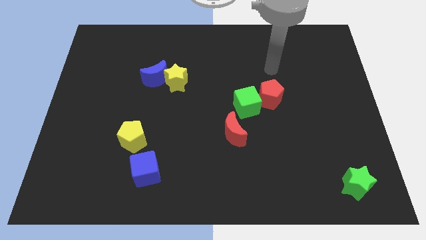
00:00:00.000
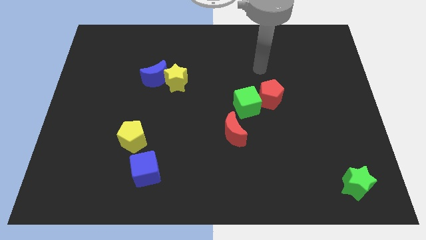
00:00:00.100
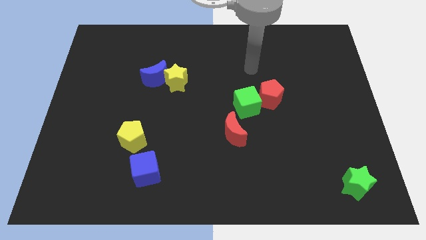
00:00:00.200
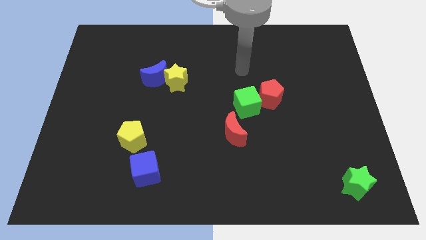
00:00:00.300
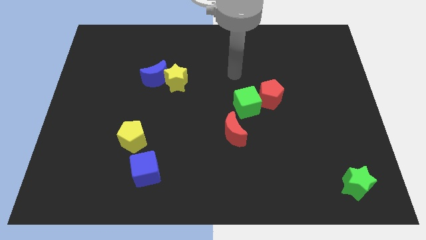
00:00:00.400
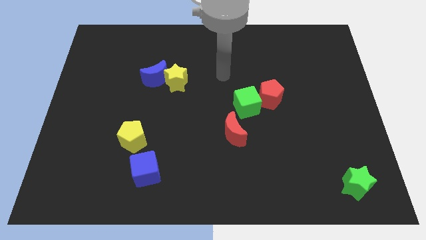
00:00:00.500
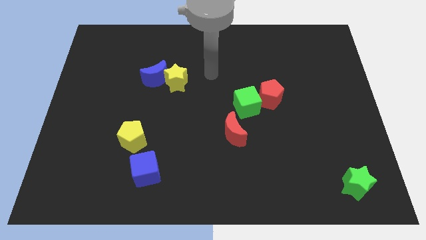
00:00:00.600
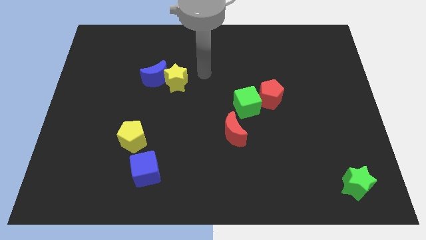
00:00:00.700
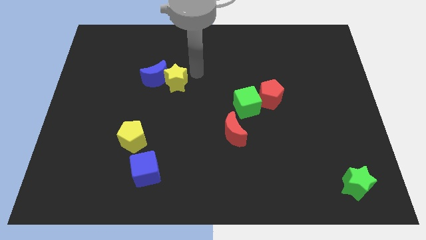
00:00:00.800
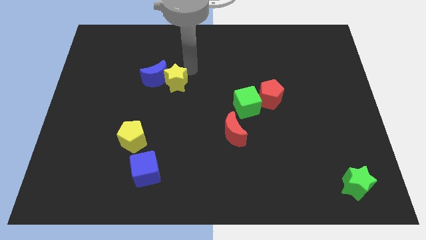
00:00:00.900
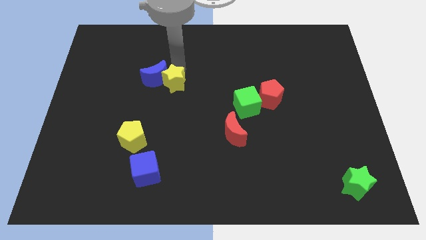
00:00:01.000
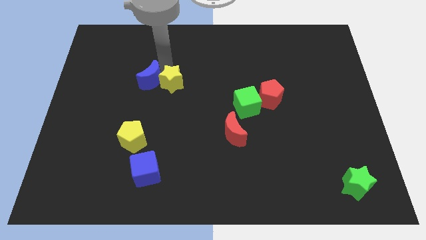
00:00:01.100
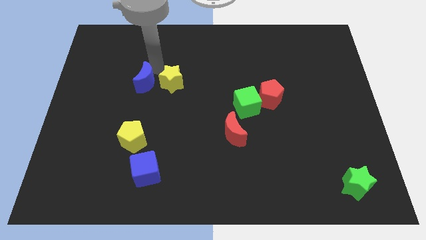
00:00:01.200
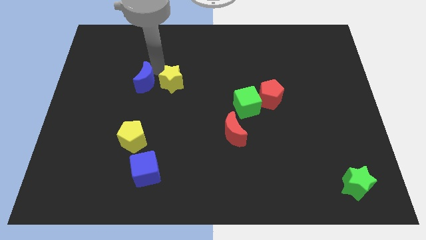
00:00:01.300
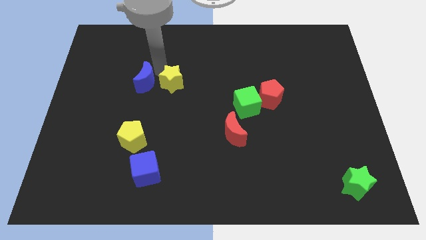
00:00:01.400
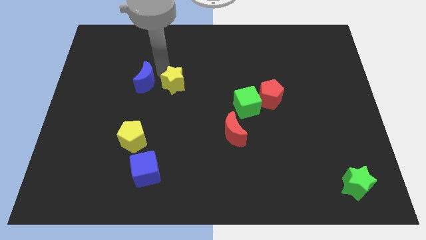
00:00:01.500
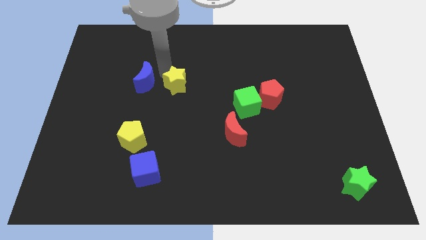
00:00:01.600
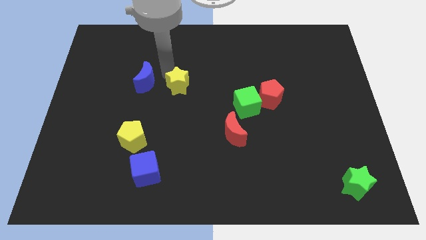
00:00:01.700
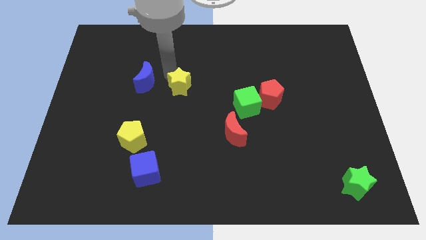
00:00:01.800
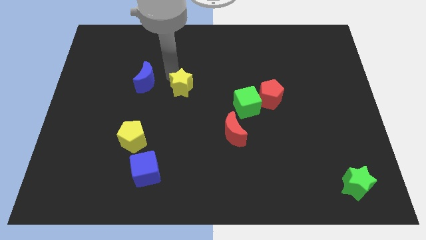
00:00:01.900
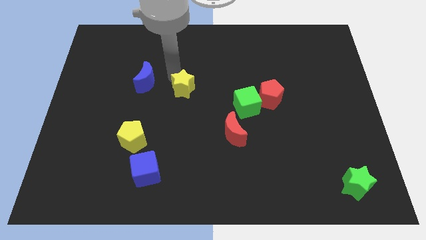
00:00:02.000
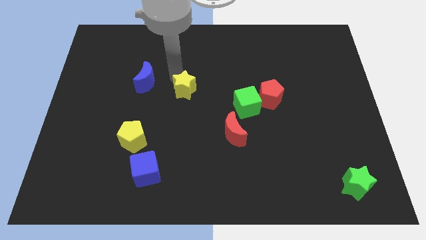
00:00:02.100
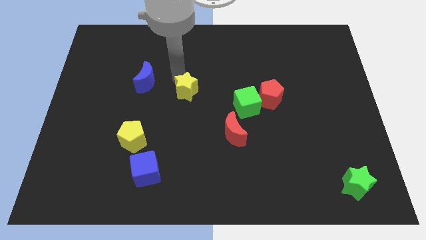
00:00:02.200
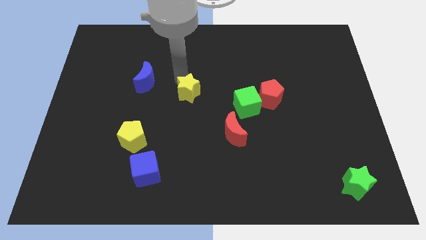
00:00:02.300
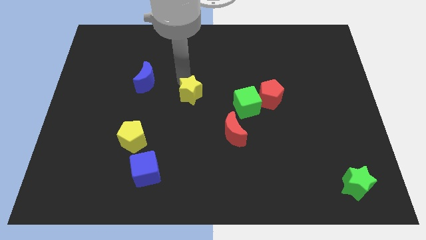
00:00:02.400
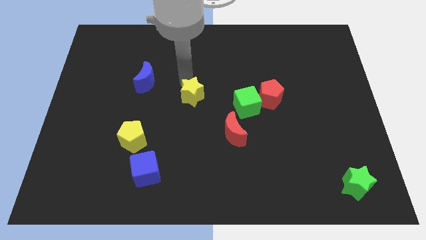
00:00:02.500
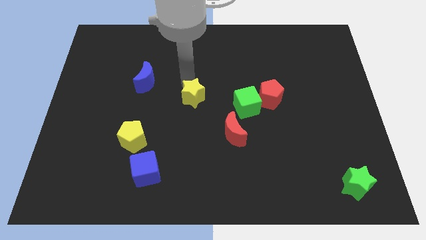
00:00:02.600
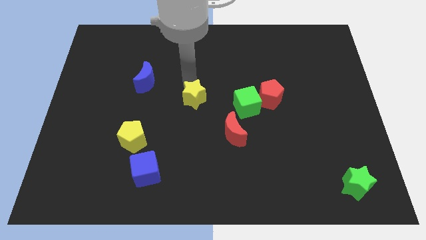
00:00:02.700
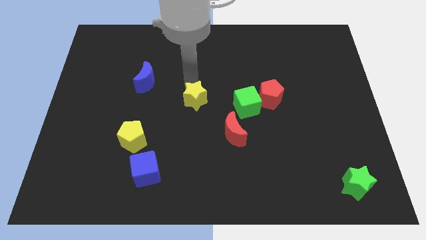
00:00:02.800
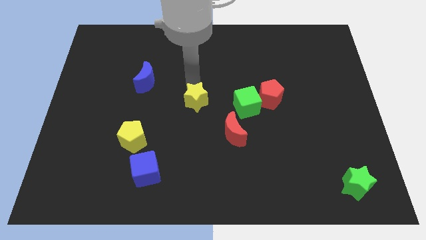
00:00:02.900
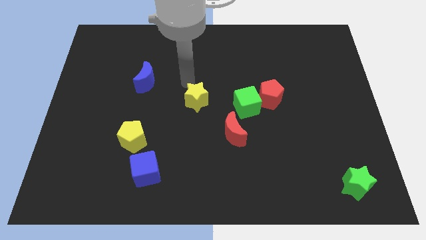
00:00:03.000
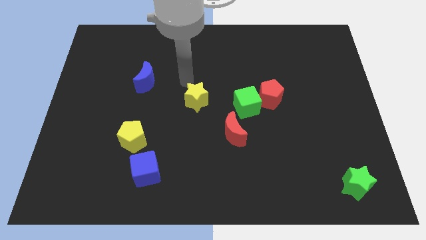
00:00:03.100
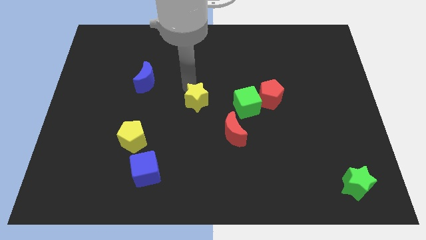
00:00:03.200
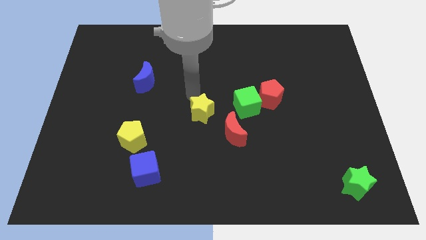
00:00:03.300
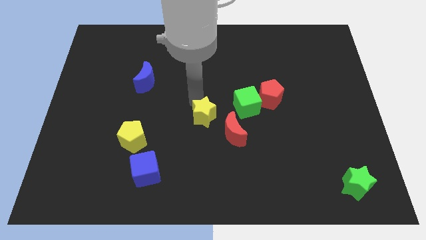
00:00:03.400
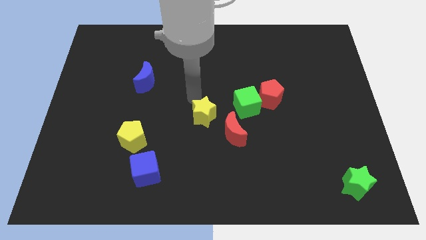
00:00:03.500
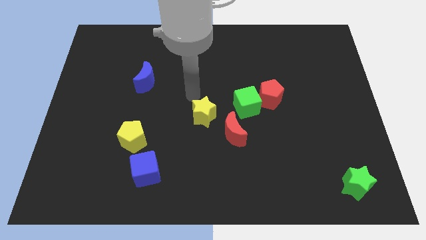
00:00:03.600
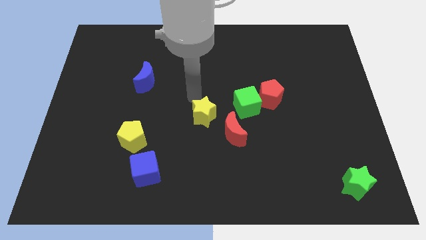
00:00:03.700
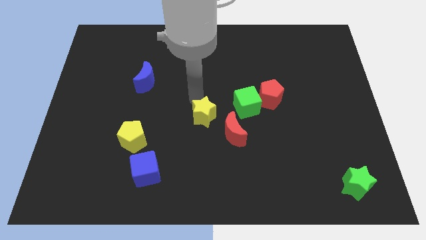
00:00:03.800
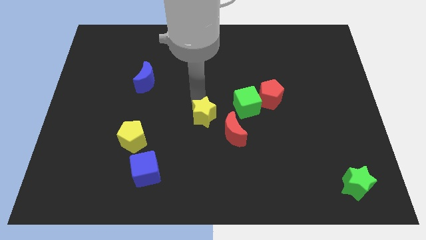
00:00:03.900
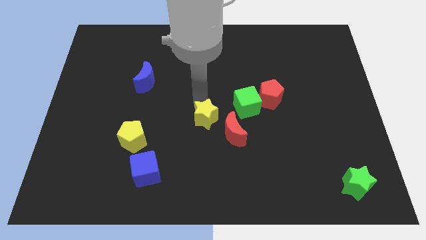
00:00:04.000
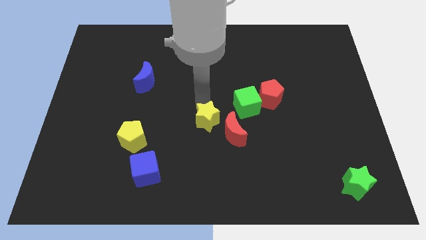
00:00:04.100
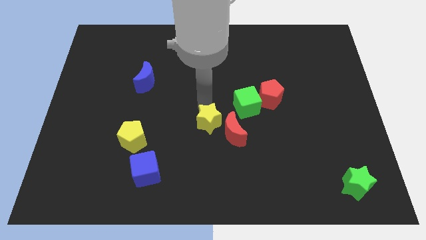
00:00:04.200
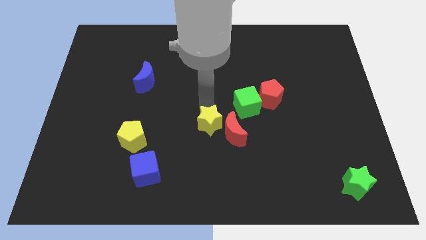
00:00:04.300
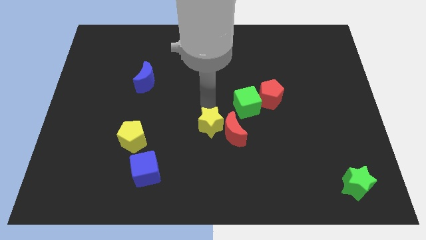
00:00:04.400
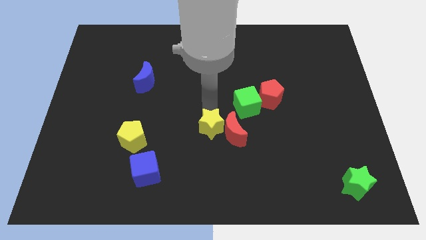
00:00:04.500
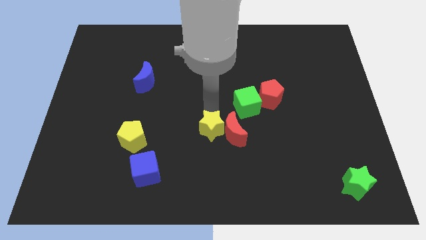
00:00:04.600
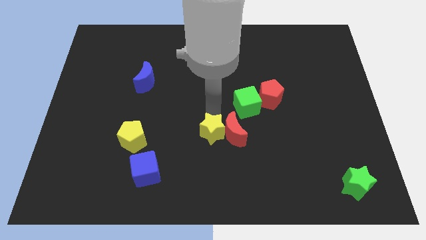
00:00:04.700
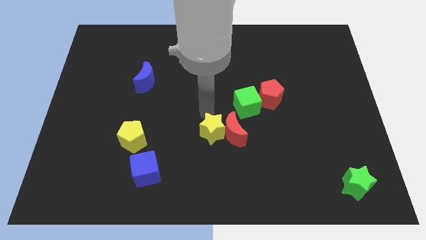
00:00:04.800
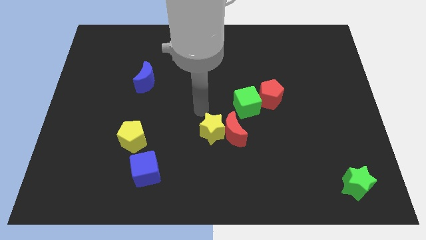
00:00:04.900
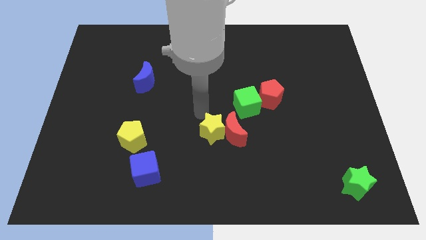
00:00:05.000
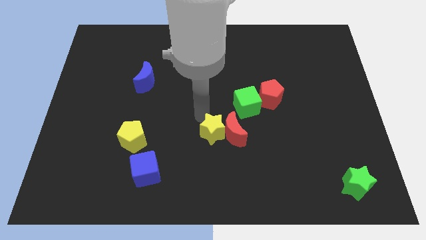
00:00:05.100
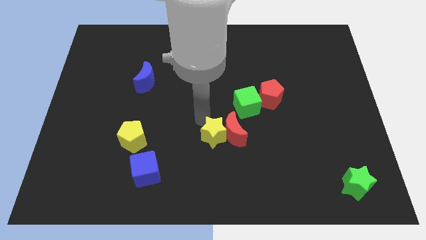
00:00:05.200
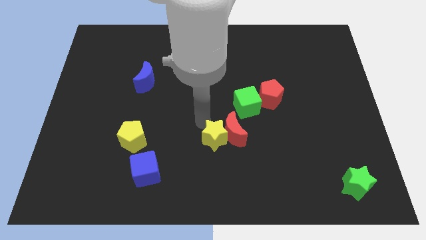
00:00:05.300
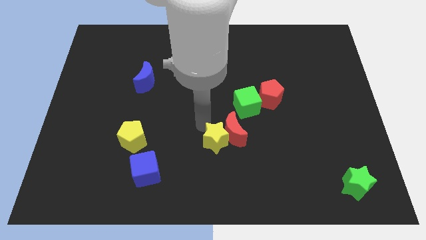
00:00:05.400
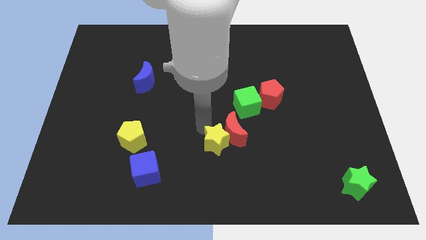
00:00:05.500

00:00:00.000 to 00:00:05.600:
push the yellow star below the red moon

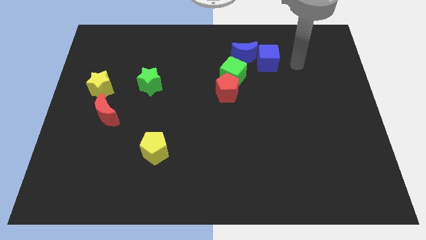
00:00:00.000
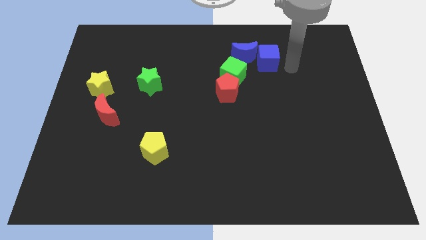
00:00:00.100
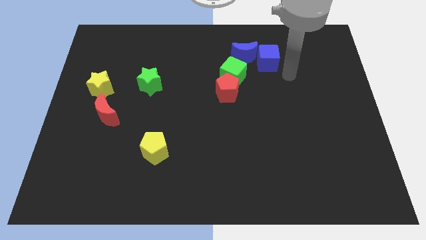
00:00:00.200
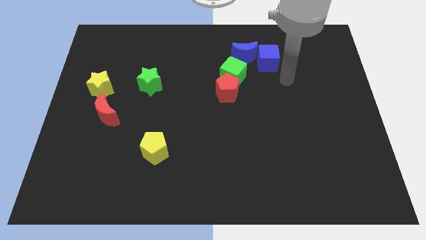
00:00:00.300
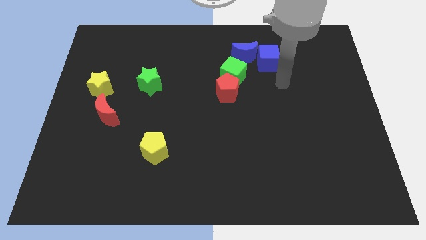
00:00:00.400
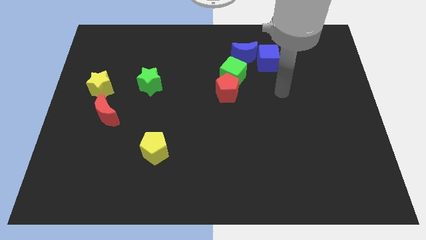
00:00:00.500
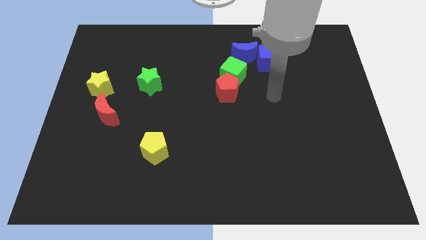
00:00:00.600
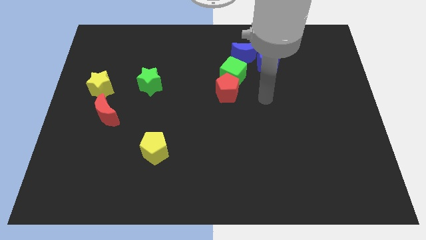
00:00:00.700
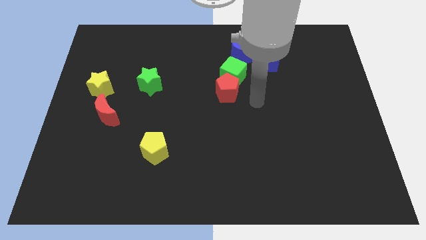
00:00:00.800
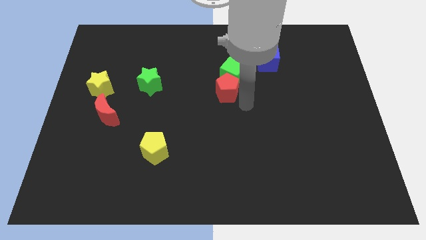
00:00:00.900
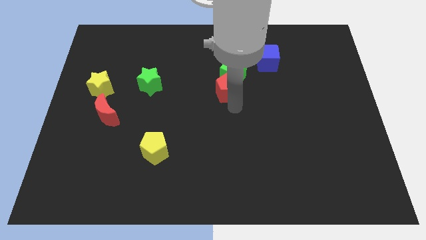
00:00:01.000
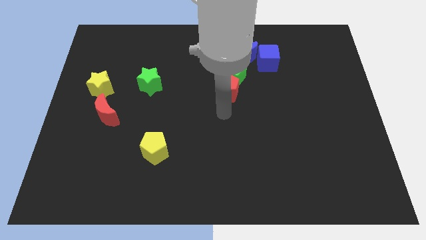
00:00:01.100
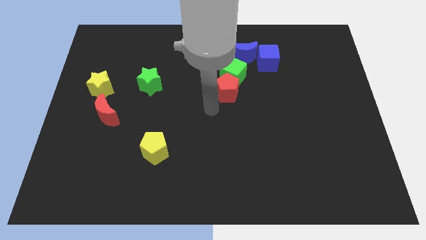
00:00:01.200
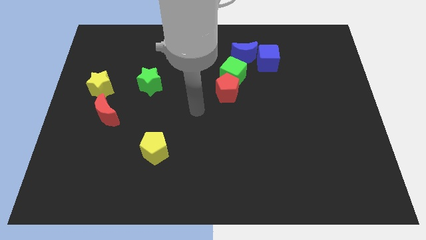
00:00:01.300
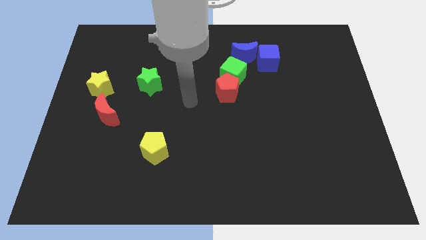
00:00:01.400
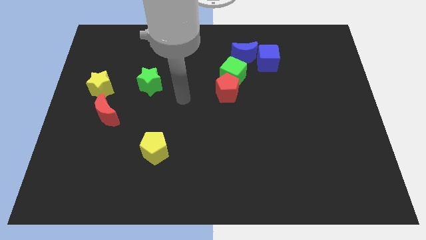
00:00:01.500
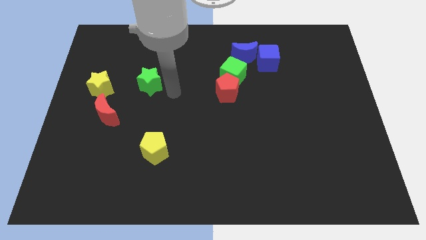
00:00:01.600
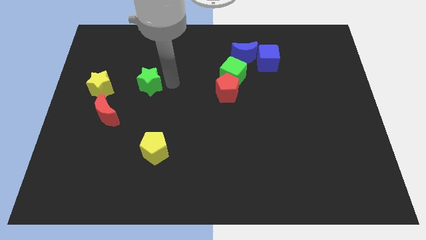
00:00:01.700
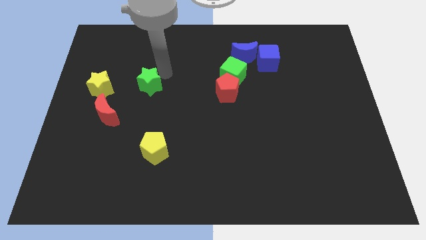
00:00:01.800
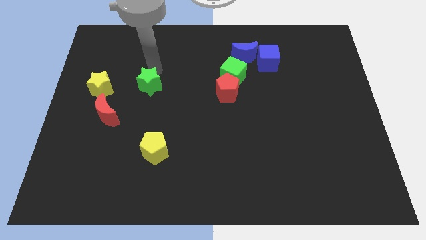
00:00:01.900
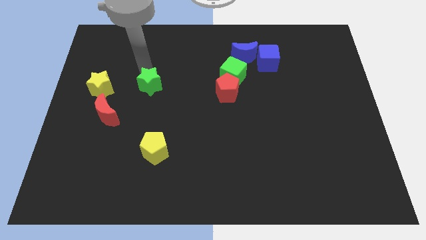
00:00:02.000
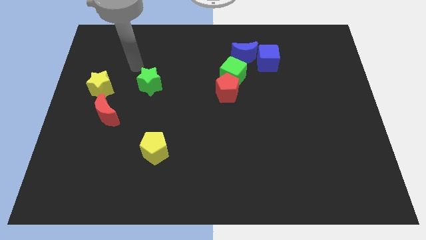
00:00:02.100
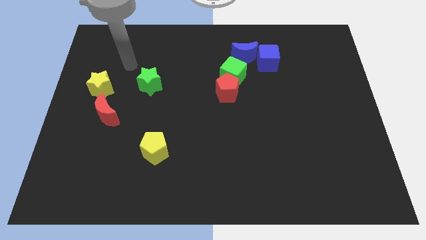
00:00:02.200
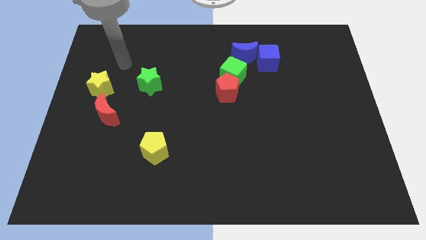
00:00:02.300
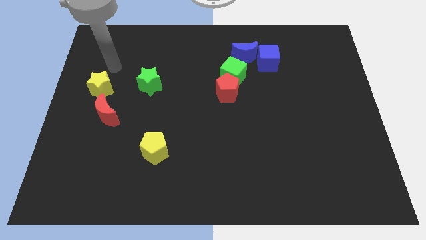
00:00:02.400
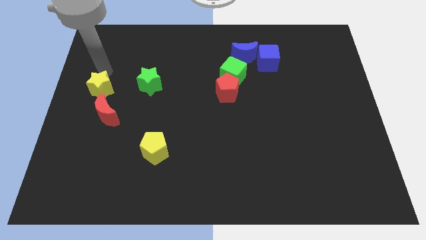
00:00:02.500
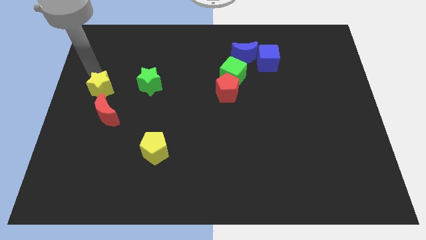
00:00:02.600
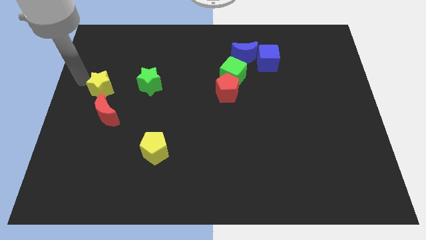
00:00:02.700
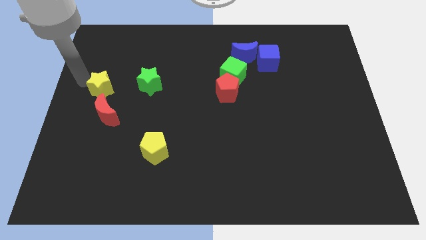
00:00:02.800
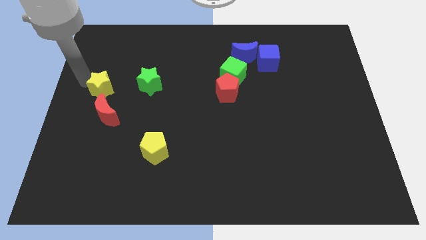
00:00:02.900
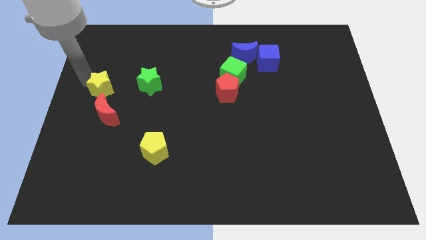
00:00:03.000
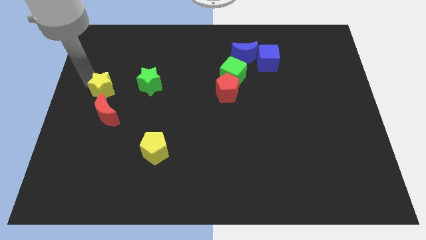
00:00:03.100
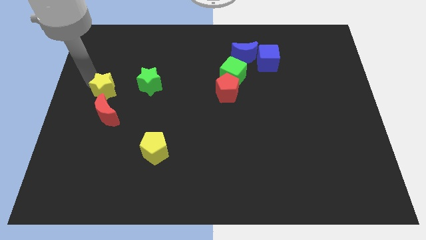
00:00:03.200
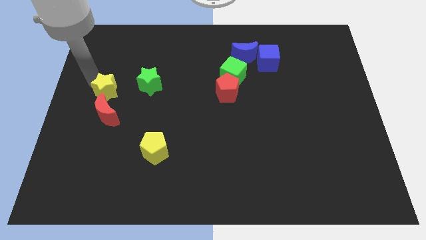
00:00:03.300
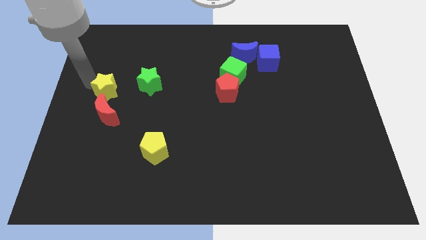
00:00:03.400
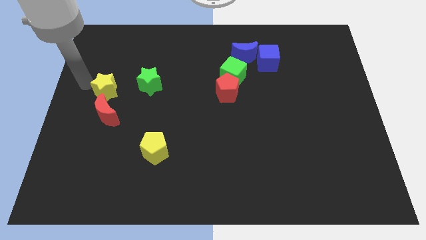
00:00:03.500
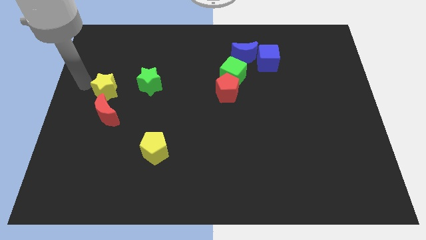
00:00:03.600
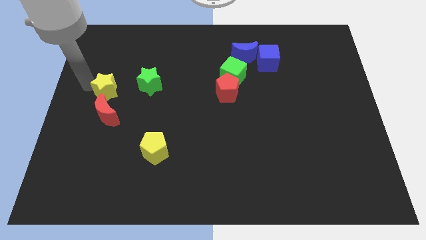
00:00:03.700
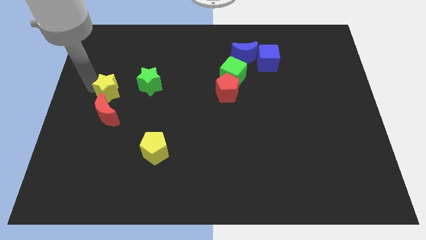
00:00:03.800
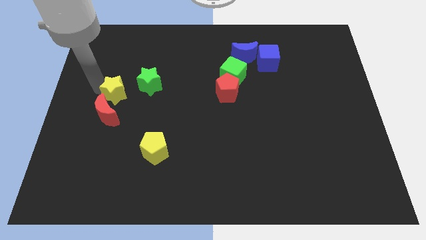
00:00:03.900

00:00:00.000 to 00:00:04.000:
slide the yellow star diagonally up and to the right of the red moon
